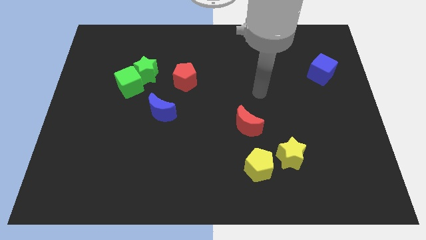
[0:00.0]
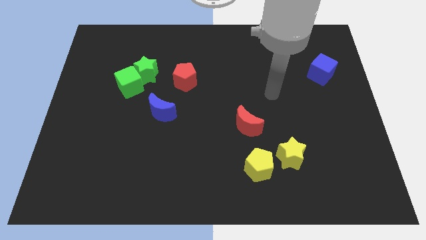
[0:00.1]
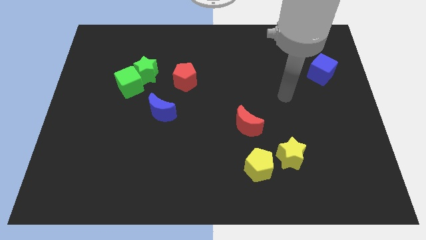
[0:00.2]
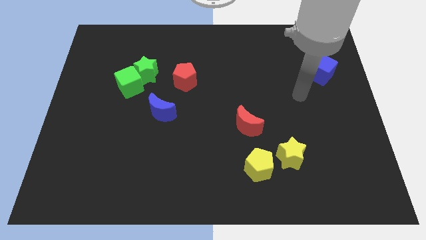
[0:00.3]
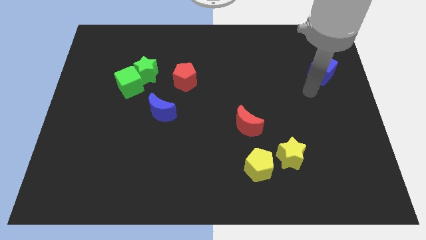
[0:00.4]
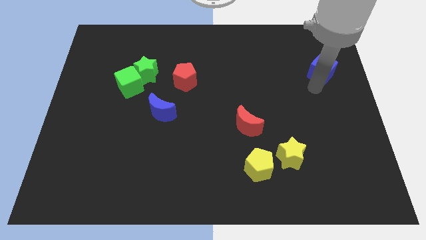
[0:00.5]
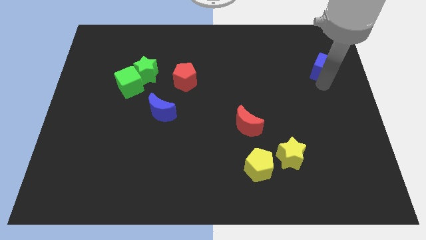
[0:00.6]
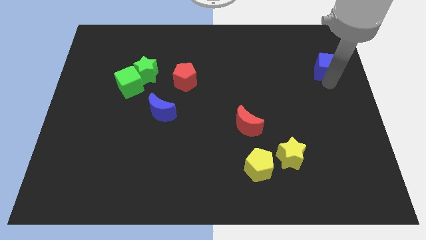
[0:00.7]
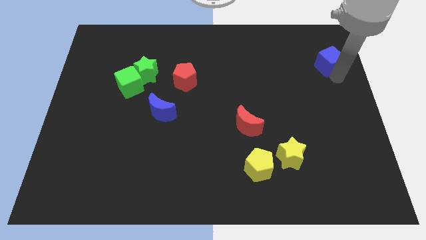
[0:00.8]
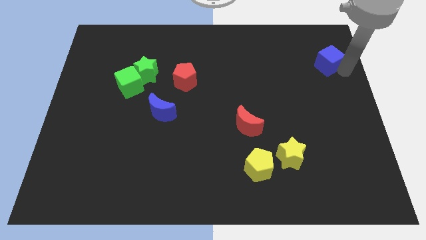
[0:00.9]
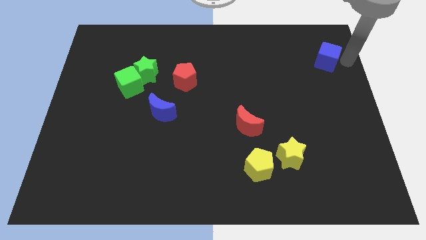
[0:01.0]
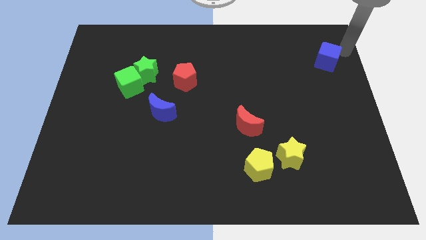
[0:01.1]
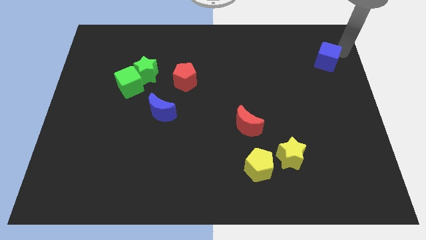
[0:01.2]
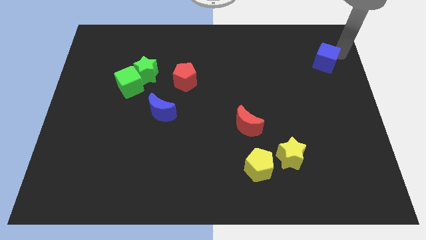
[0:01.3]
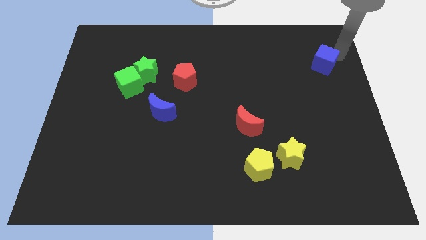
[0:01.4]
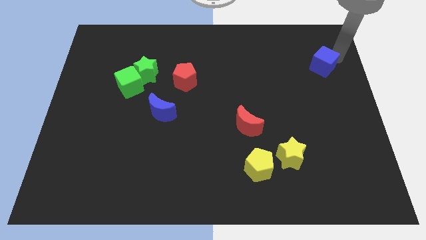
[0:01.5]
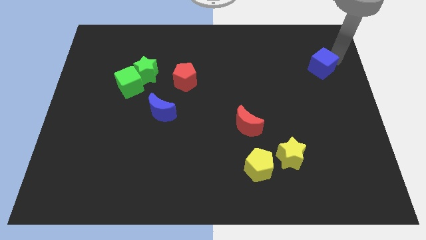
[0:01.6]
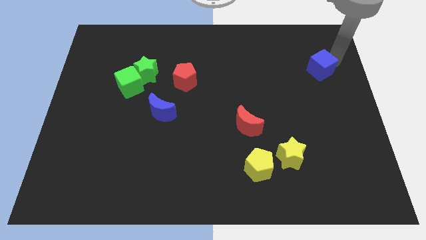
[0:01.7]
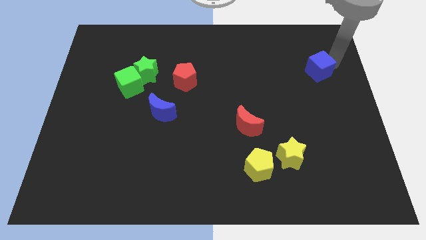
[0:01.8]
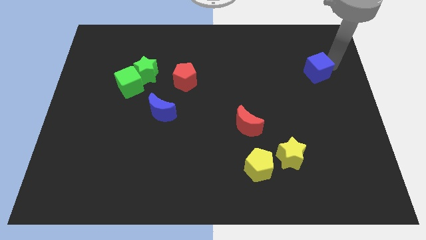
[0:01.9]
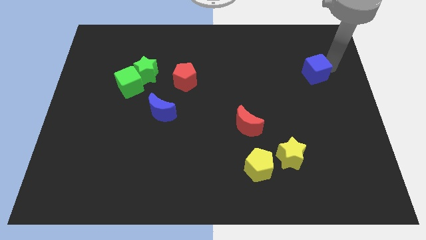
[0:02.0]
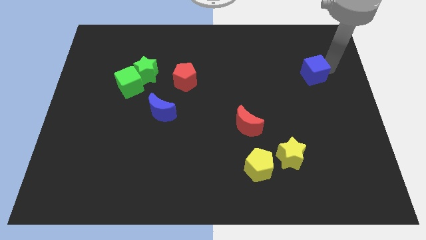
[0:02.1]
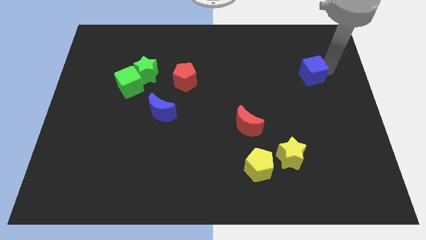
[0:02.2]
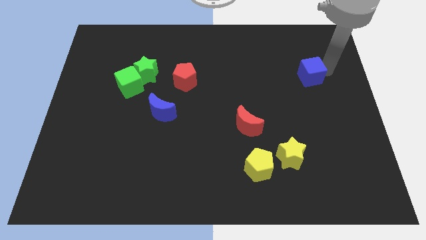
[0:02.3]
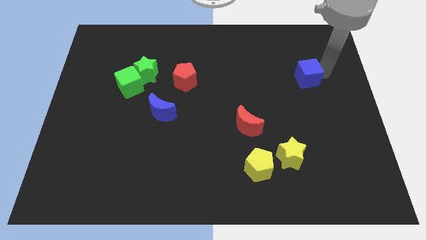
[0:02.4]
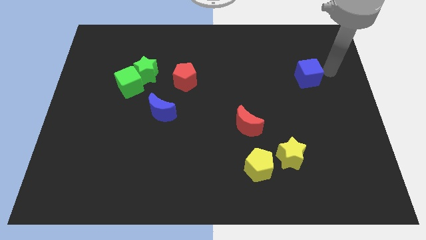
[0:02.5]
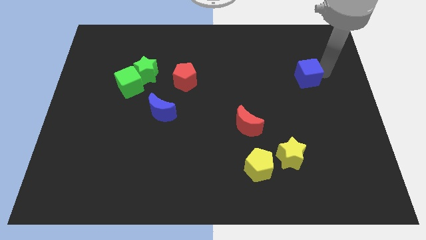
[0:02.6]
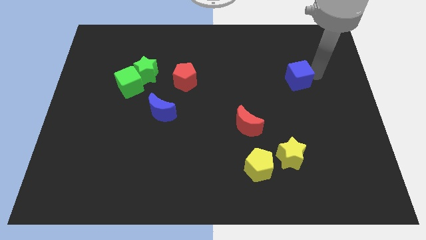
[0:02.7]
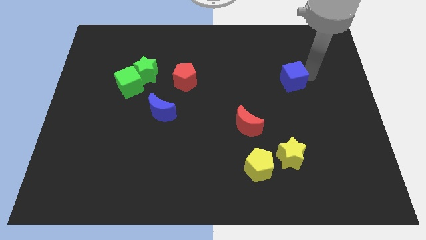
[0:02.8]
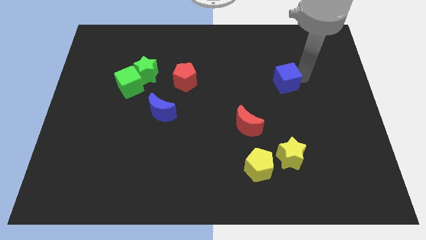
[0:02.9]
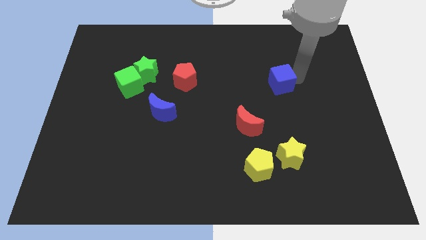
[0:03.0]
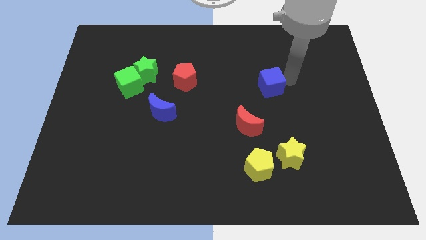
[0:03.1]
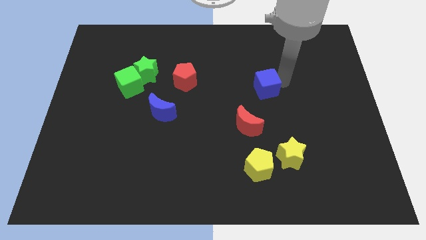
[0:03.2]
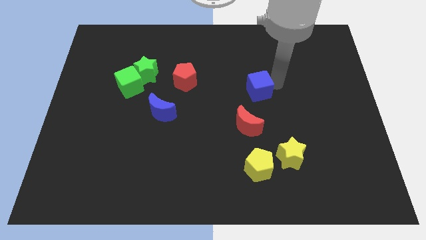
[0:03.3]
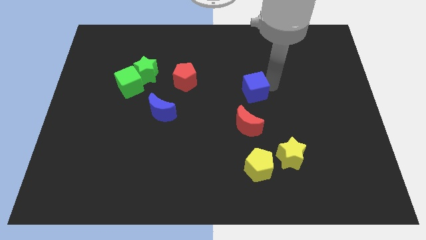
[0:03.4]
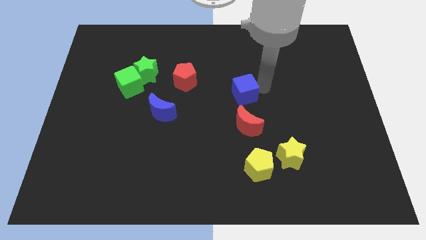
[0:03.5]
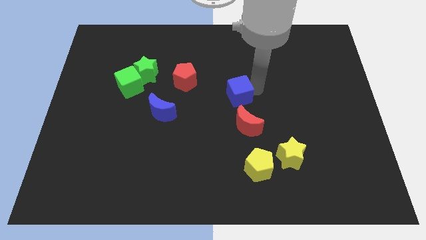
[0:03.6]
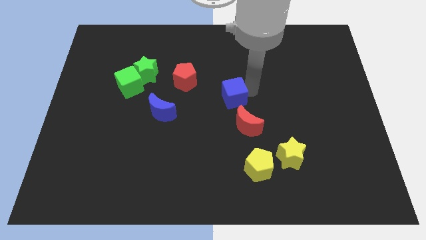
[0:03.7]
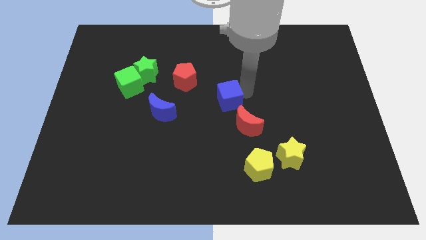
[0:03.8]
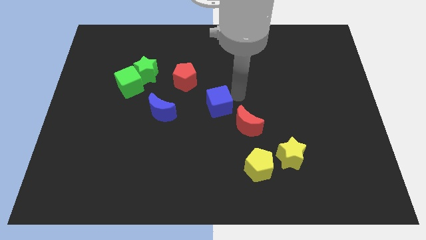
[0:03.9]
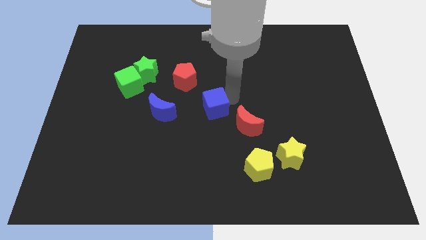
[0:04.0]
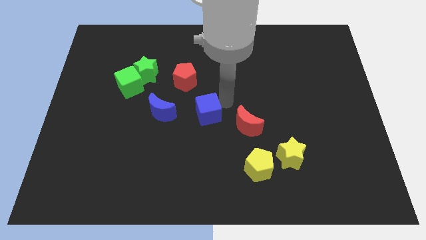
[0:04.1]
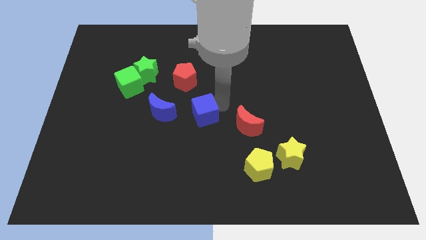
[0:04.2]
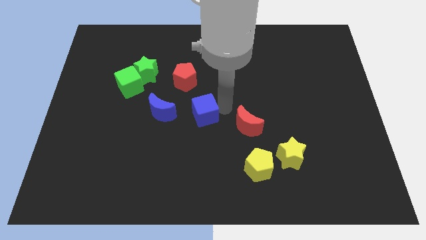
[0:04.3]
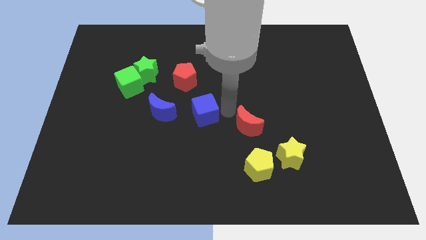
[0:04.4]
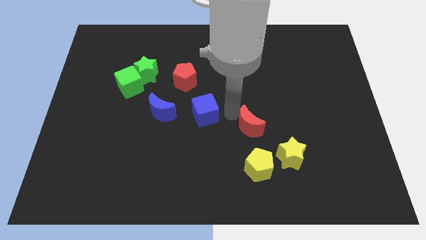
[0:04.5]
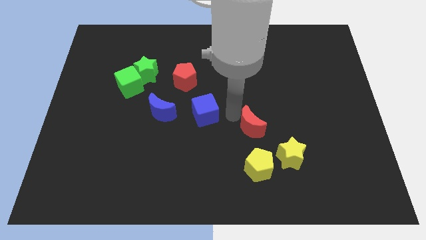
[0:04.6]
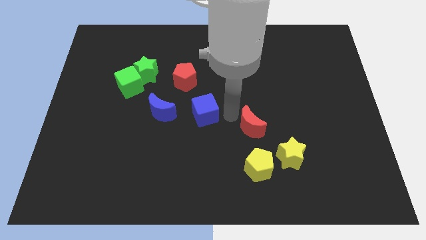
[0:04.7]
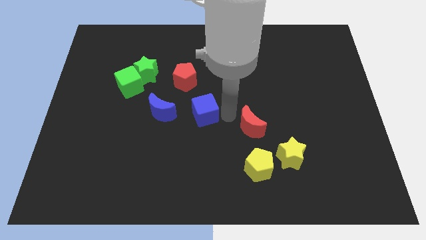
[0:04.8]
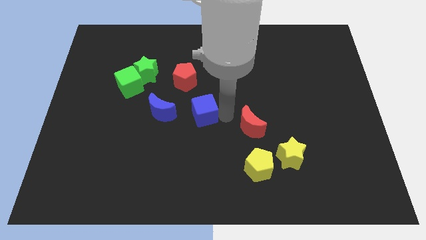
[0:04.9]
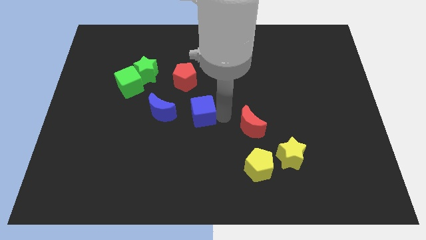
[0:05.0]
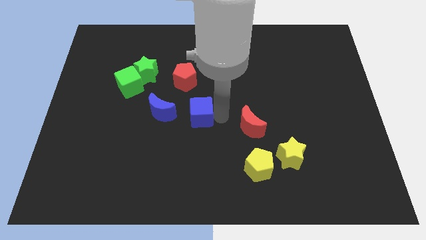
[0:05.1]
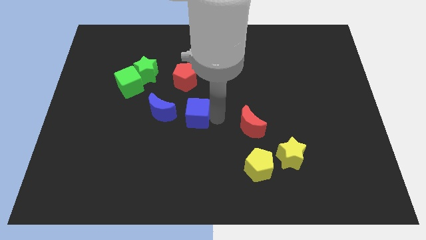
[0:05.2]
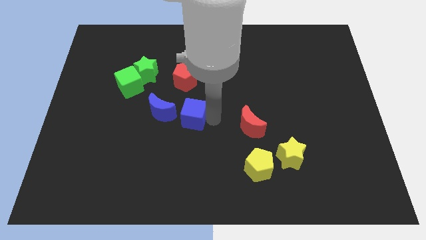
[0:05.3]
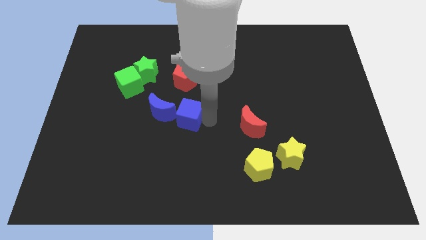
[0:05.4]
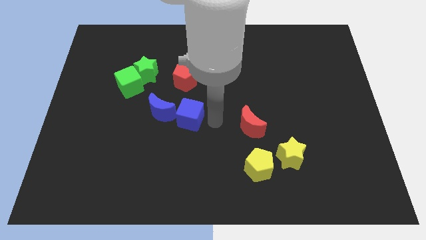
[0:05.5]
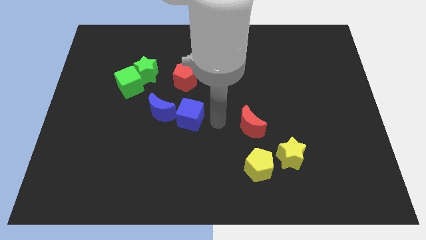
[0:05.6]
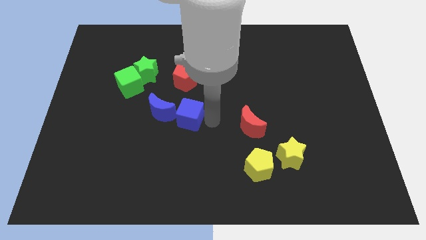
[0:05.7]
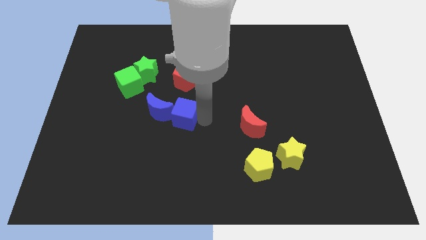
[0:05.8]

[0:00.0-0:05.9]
move the blue cube to the blue moon

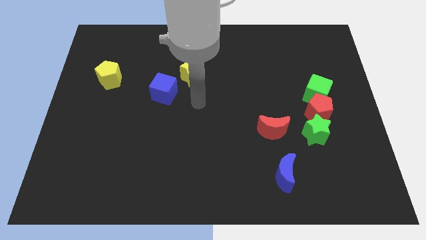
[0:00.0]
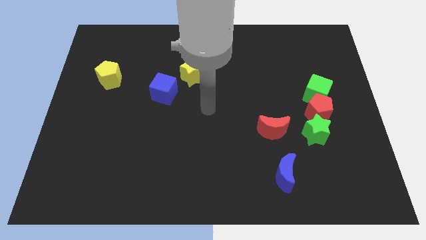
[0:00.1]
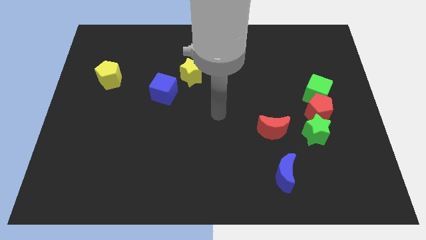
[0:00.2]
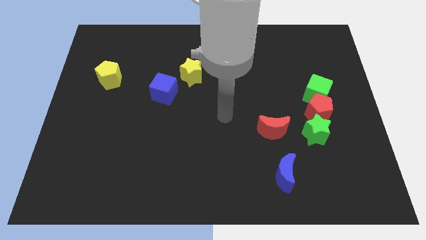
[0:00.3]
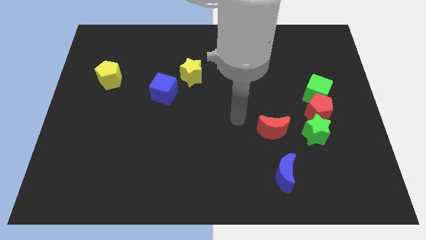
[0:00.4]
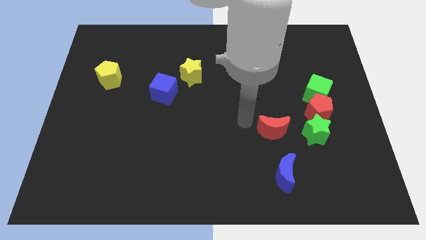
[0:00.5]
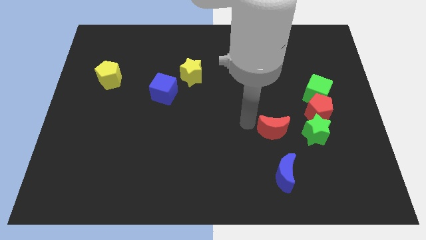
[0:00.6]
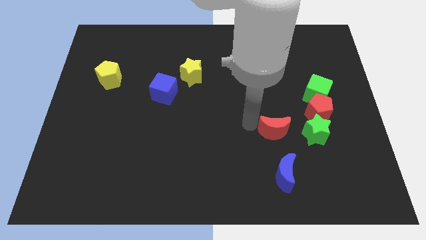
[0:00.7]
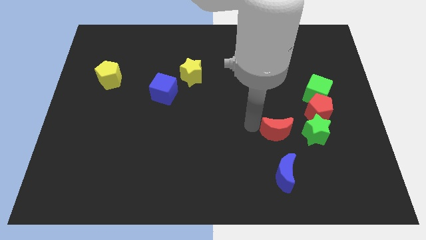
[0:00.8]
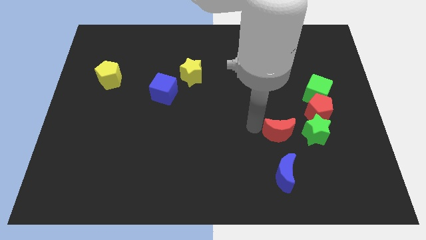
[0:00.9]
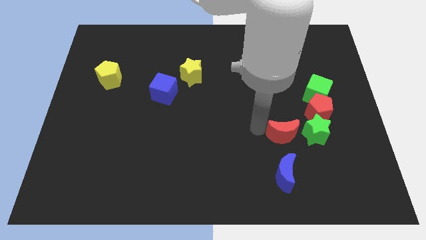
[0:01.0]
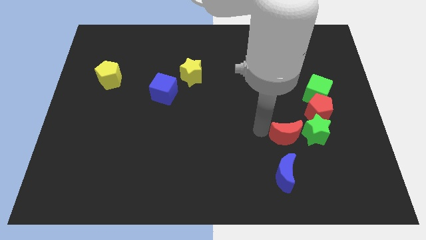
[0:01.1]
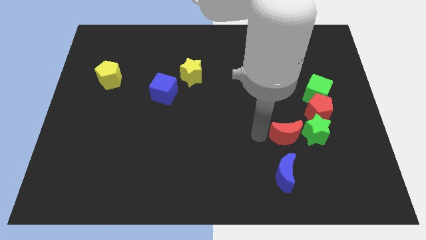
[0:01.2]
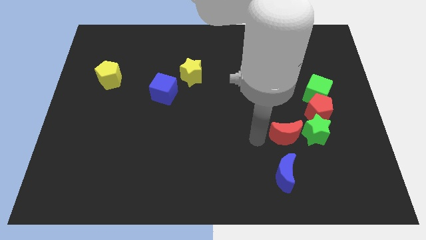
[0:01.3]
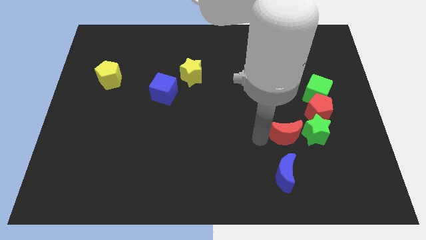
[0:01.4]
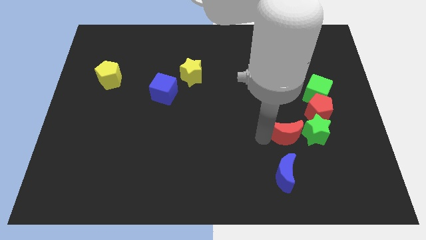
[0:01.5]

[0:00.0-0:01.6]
push the red moon to the green star
